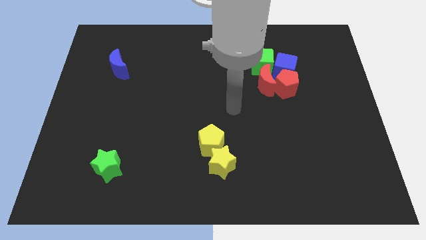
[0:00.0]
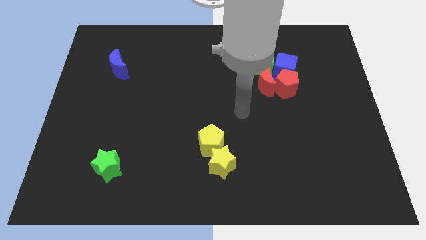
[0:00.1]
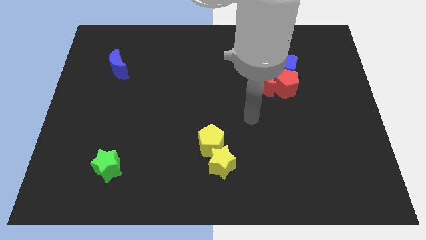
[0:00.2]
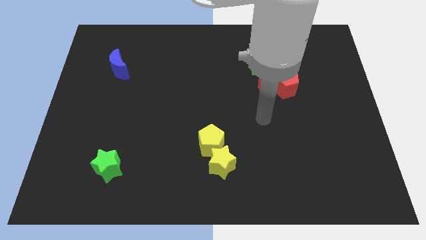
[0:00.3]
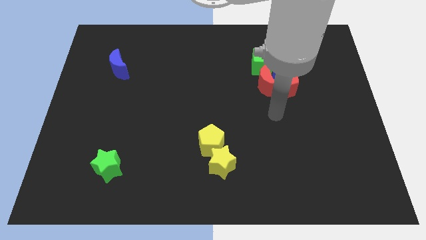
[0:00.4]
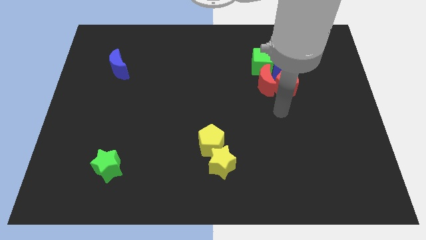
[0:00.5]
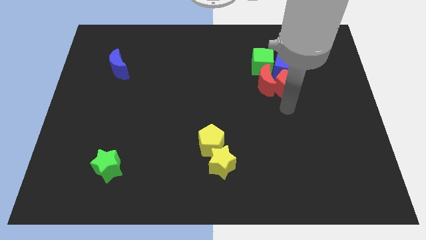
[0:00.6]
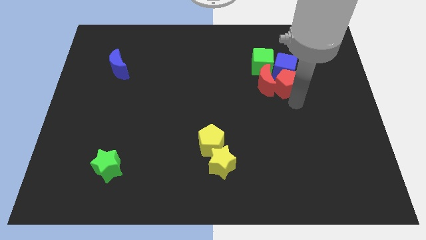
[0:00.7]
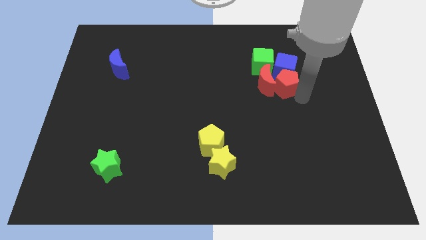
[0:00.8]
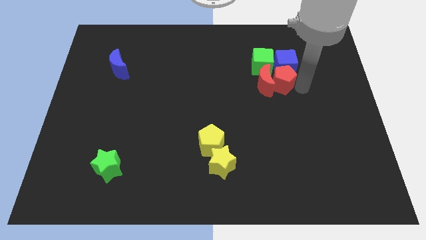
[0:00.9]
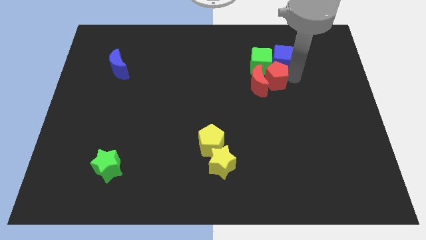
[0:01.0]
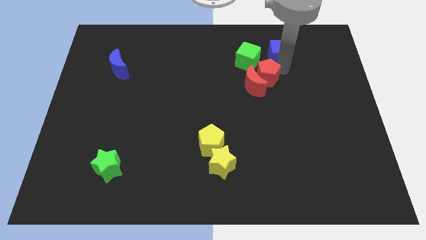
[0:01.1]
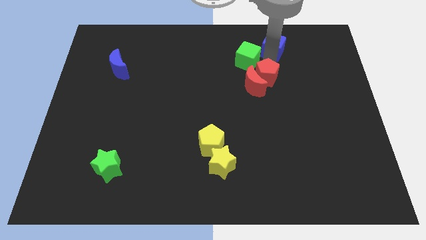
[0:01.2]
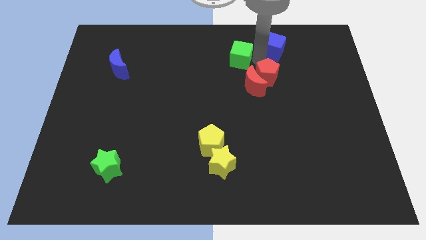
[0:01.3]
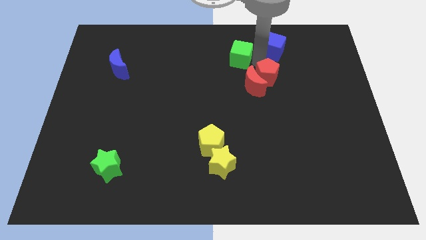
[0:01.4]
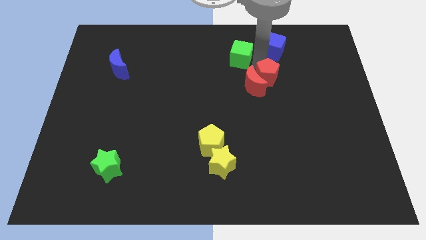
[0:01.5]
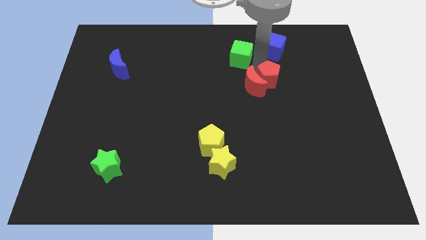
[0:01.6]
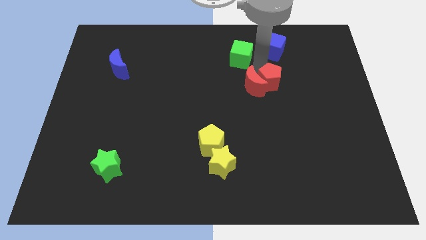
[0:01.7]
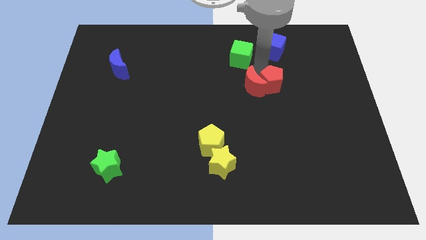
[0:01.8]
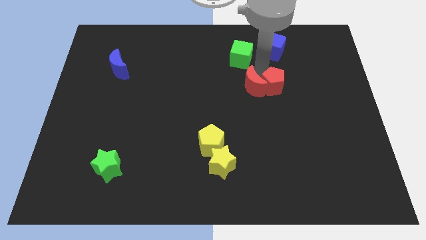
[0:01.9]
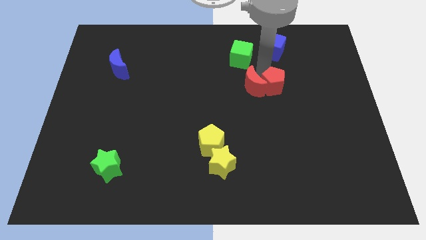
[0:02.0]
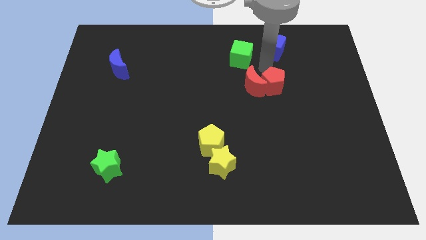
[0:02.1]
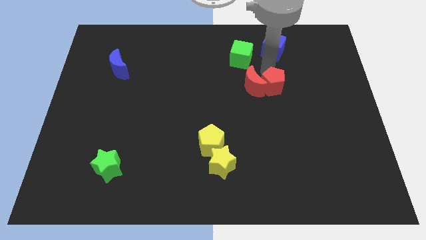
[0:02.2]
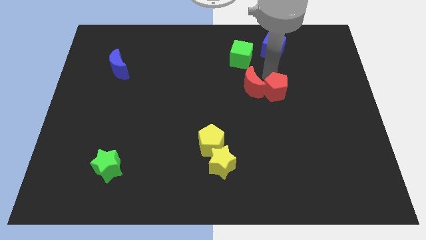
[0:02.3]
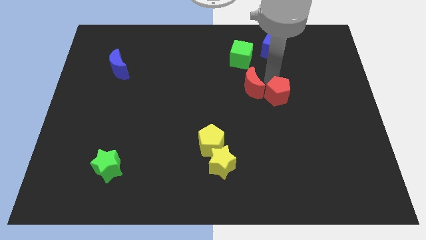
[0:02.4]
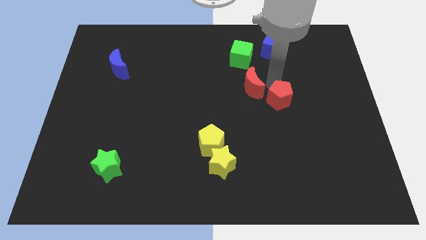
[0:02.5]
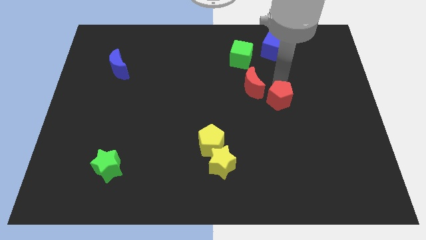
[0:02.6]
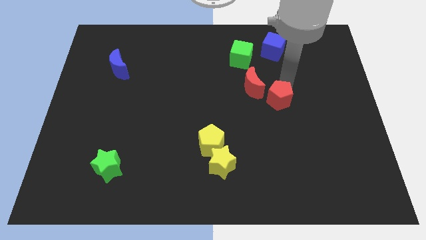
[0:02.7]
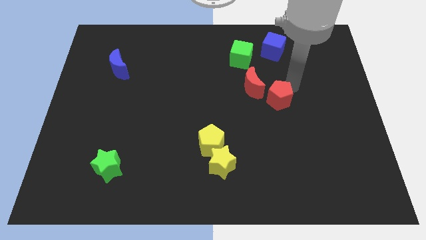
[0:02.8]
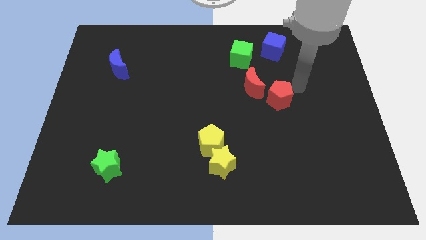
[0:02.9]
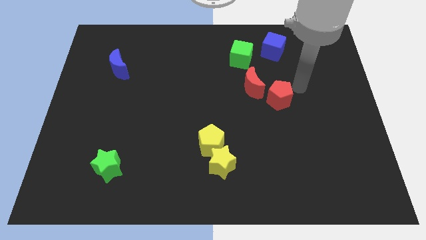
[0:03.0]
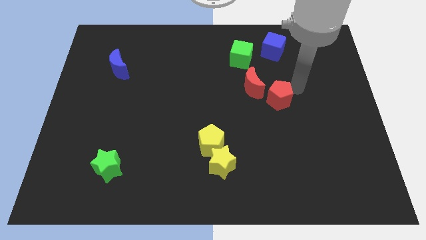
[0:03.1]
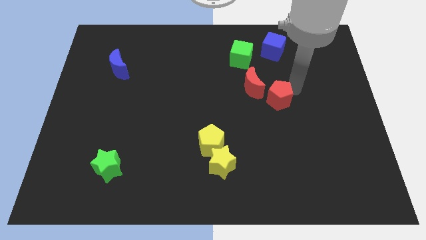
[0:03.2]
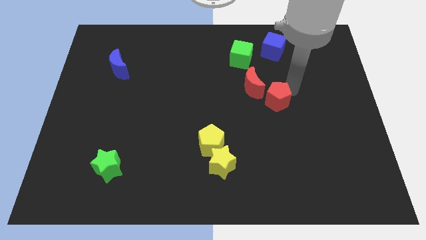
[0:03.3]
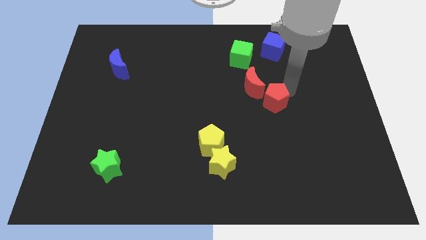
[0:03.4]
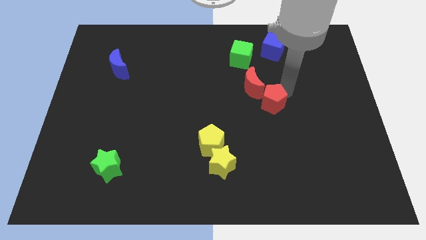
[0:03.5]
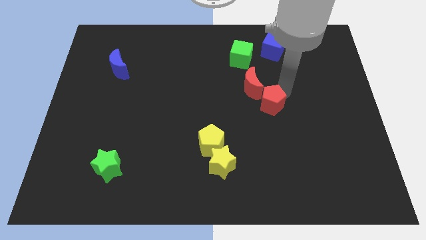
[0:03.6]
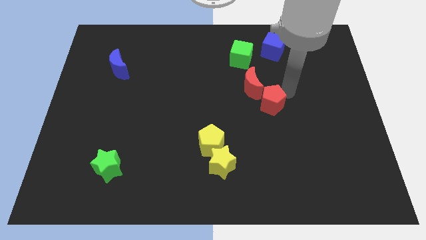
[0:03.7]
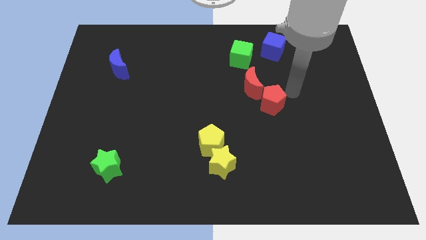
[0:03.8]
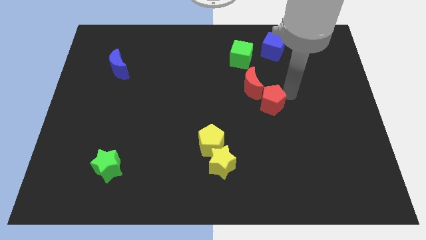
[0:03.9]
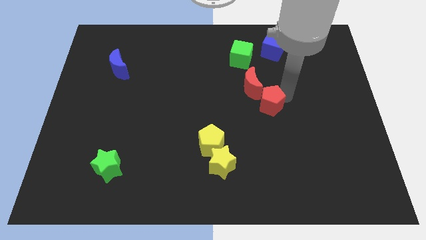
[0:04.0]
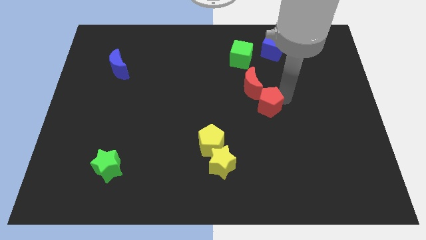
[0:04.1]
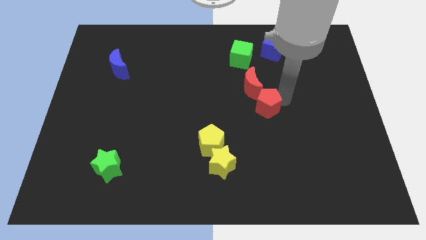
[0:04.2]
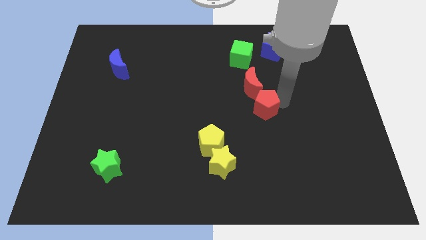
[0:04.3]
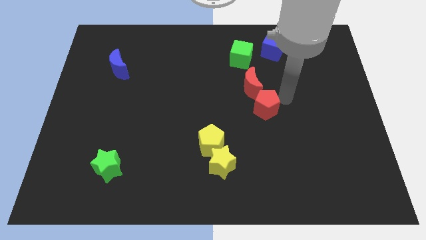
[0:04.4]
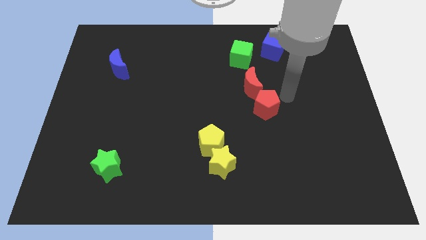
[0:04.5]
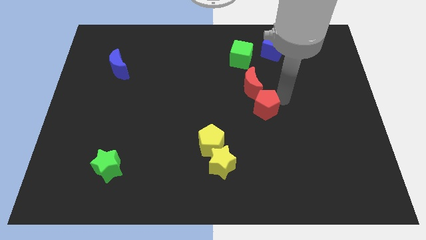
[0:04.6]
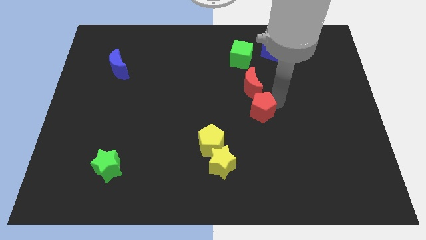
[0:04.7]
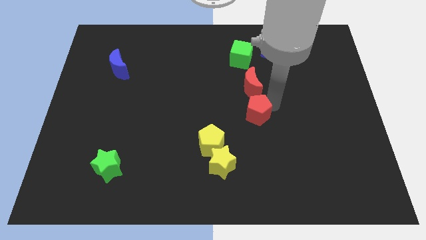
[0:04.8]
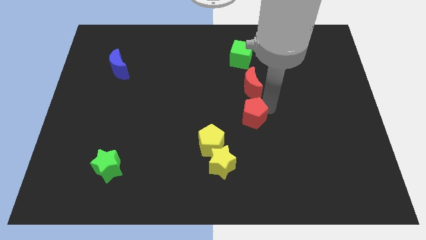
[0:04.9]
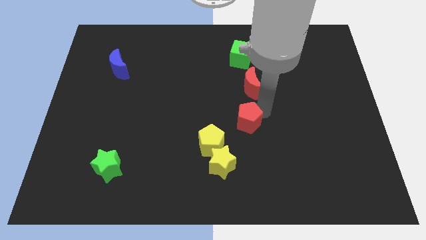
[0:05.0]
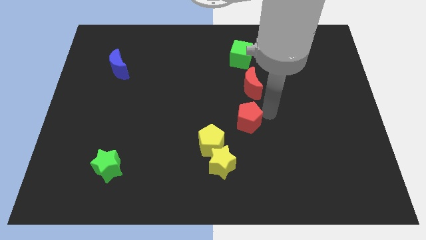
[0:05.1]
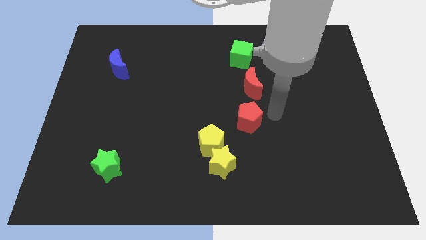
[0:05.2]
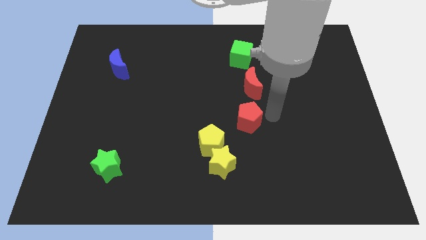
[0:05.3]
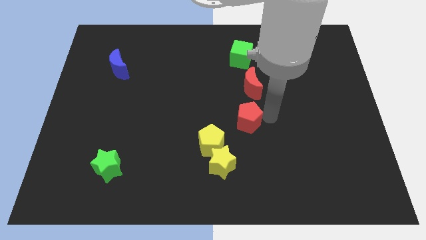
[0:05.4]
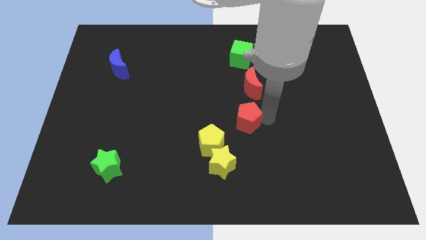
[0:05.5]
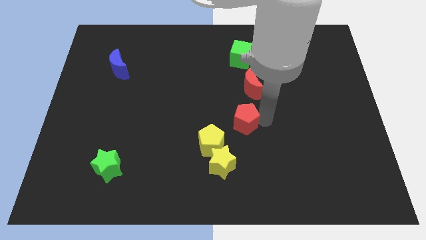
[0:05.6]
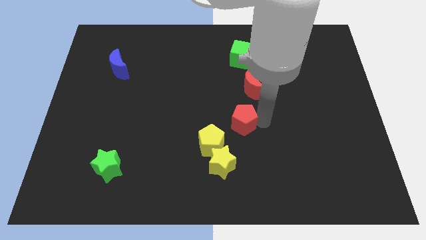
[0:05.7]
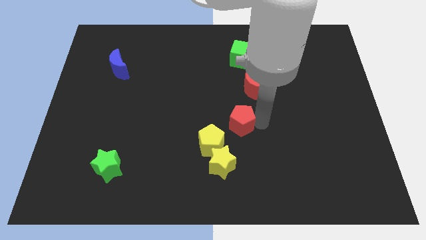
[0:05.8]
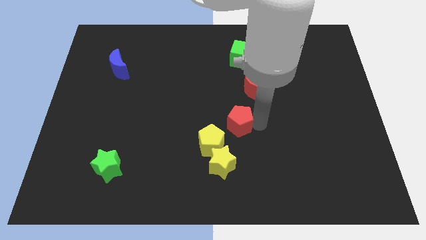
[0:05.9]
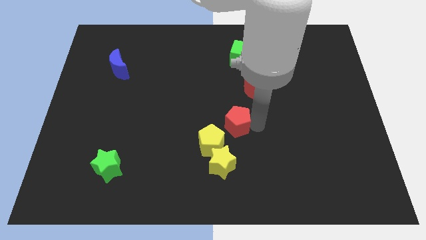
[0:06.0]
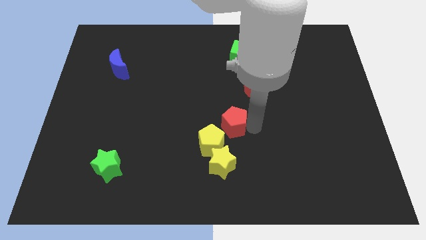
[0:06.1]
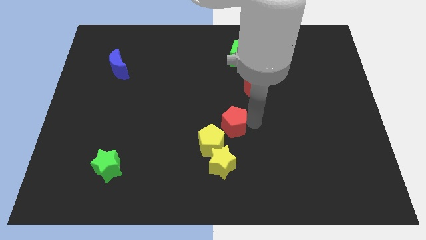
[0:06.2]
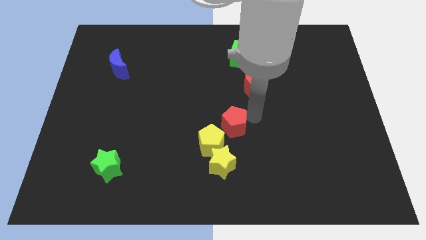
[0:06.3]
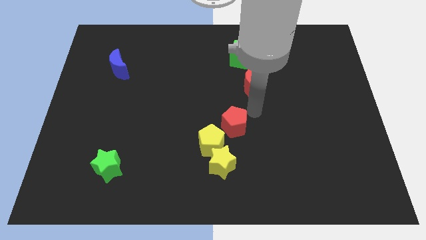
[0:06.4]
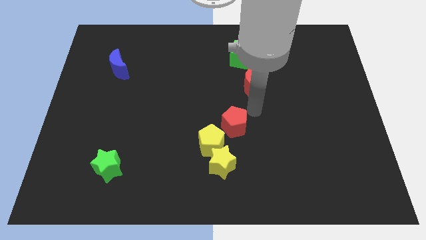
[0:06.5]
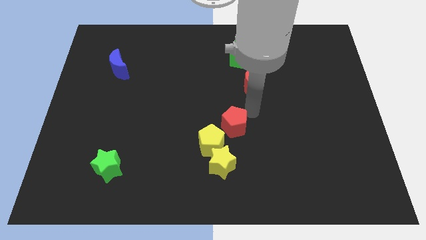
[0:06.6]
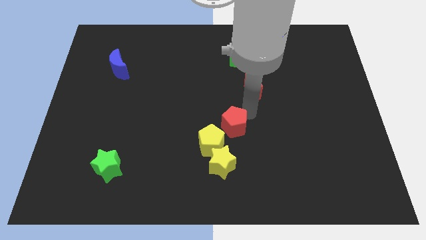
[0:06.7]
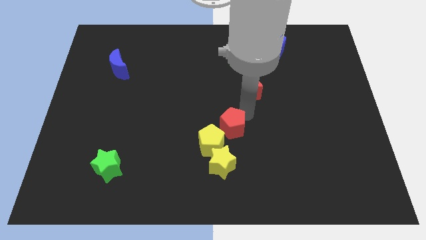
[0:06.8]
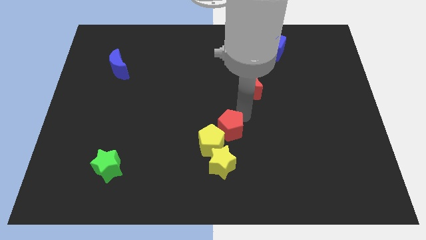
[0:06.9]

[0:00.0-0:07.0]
put the red pentagon next to the yellow pentagon
